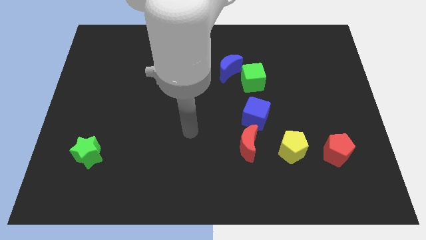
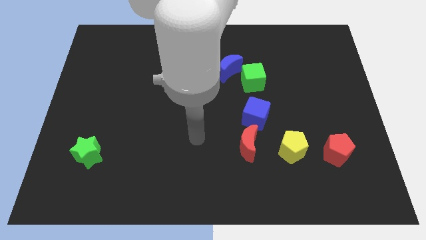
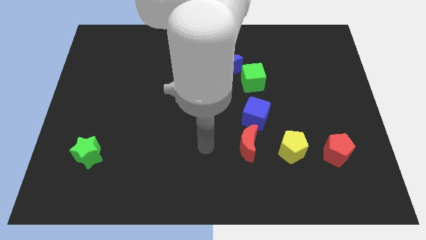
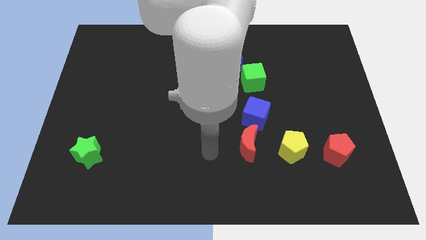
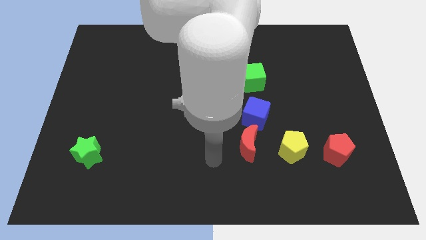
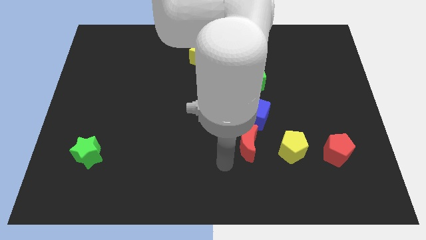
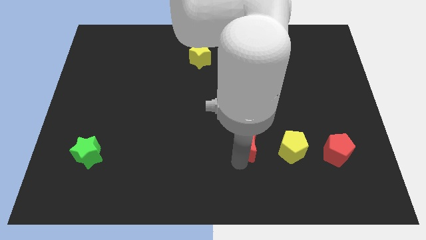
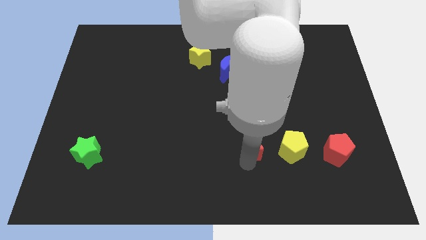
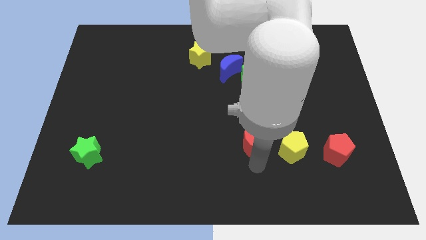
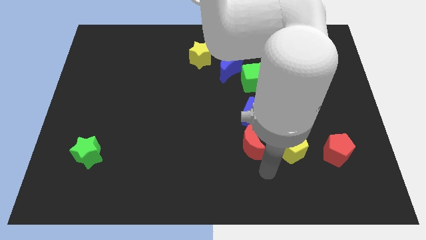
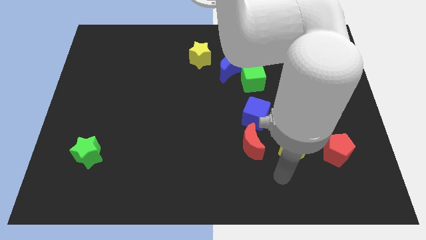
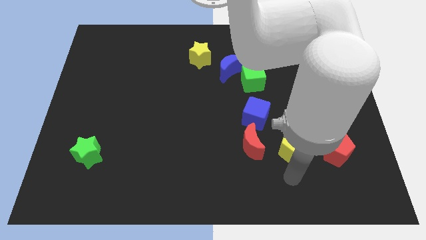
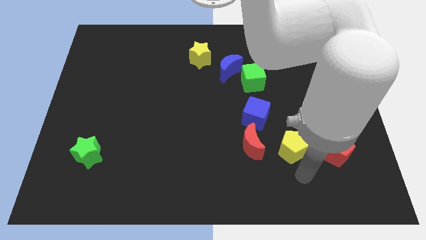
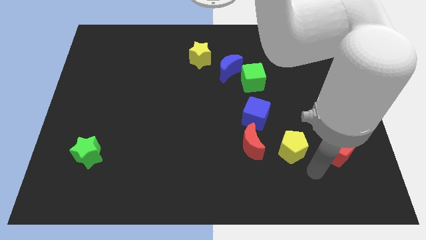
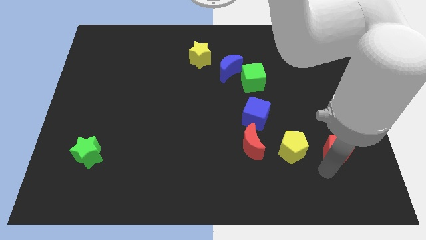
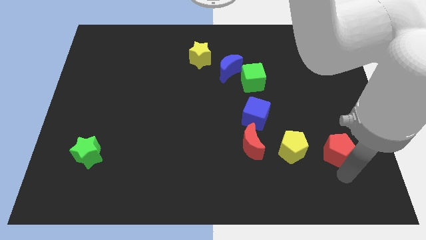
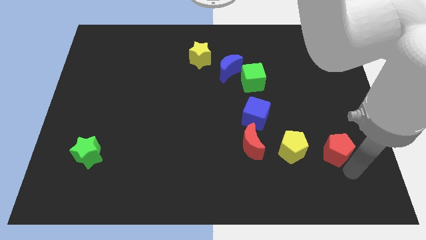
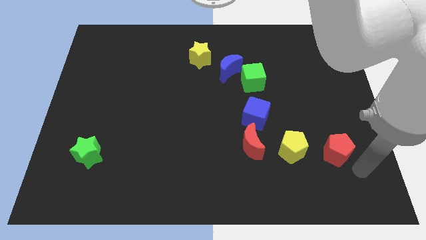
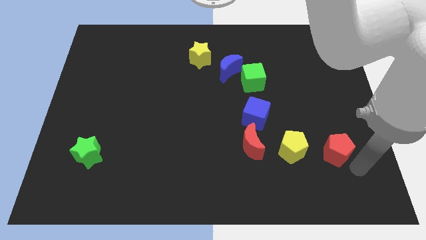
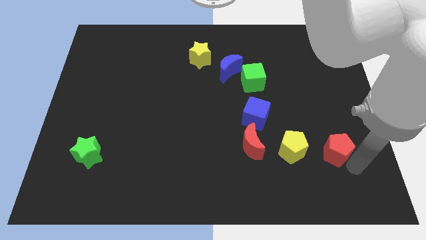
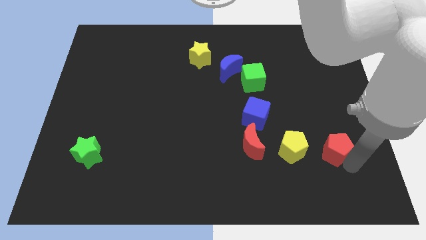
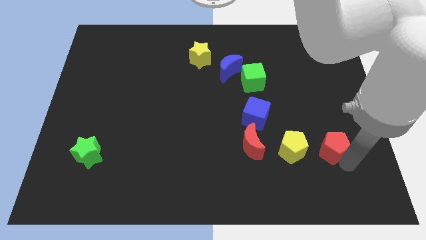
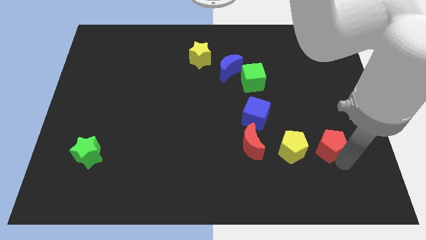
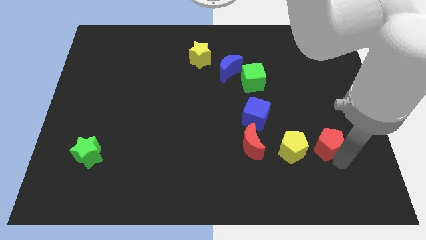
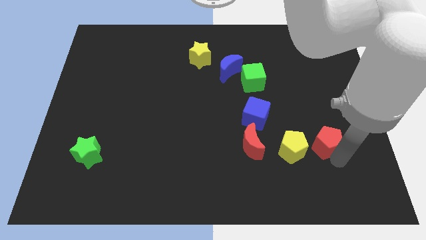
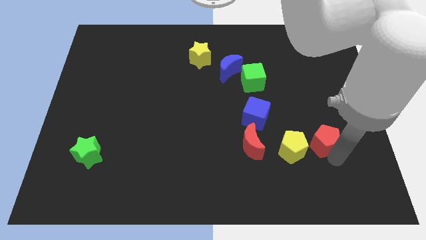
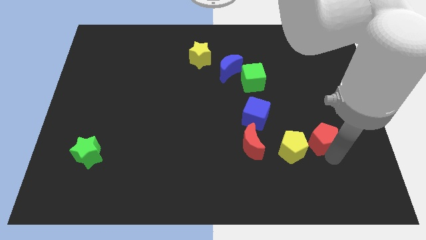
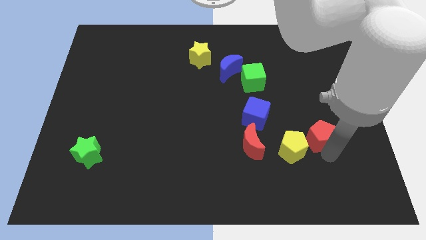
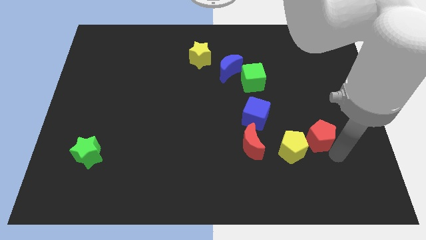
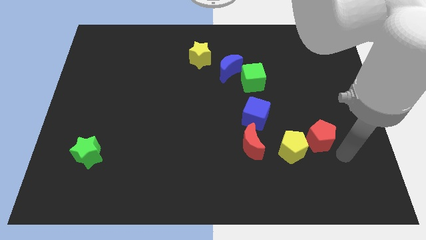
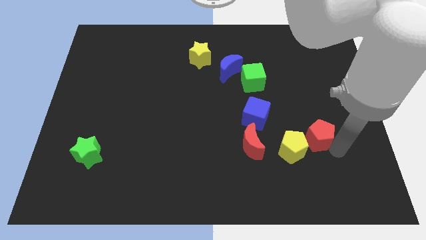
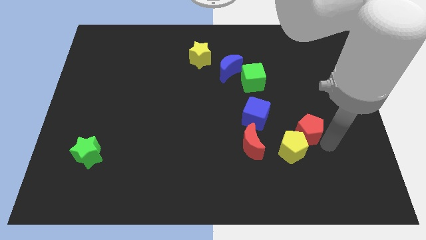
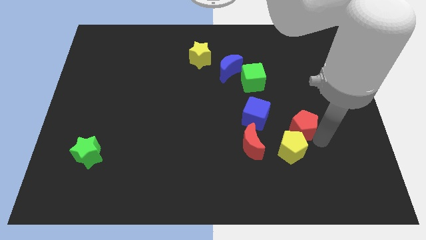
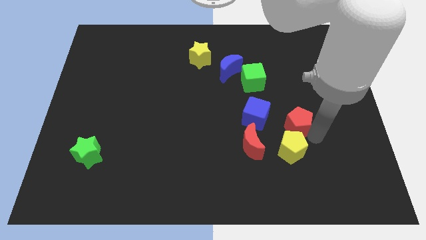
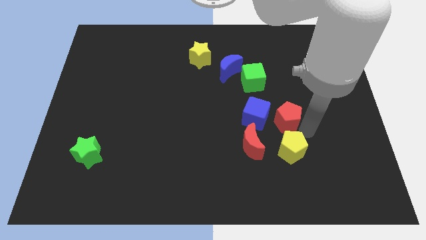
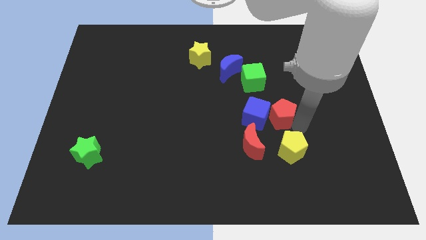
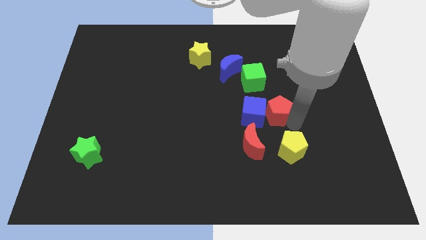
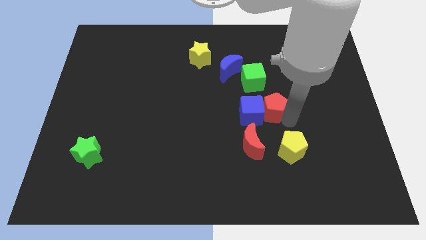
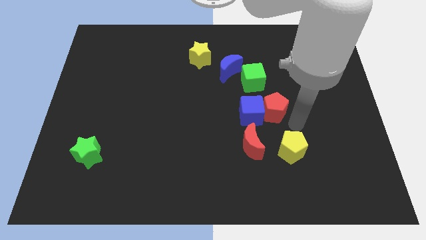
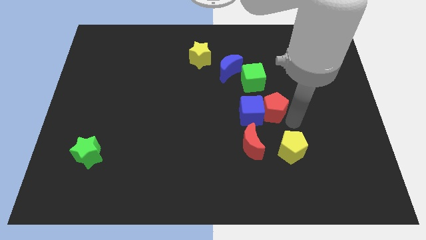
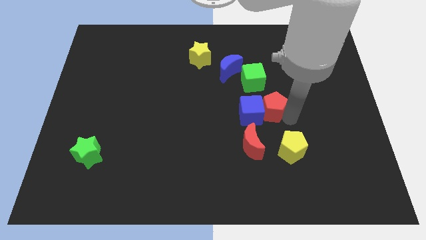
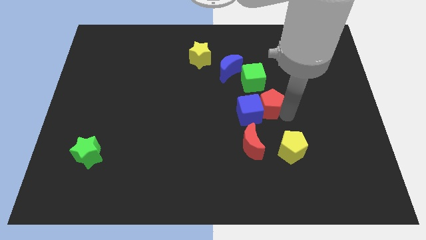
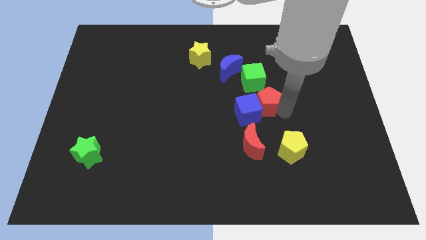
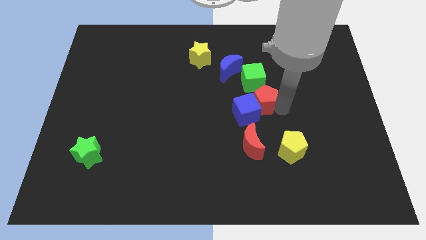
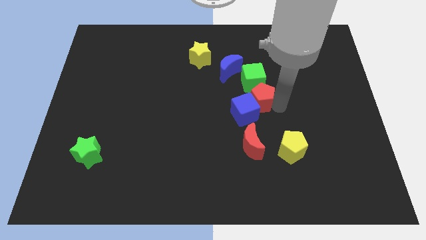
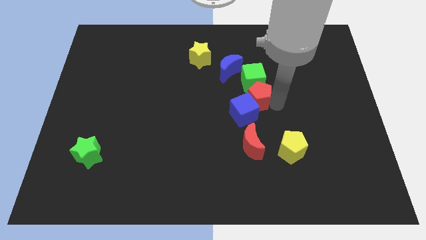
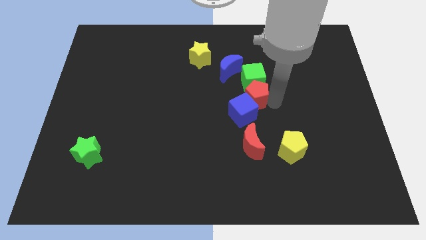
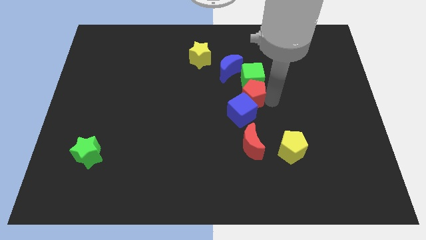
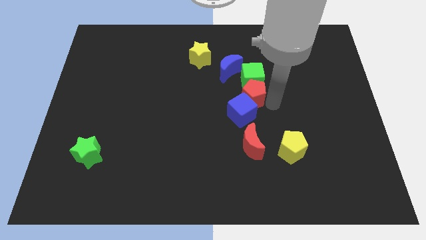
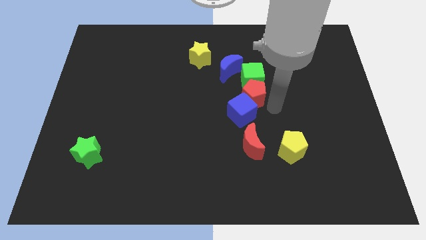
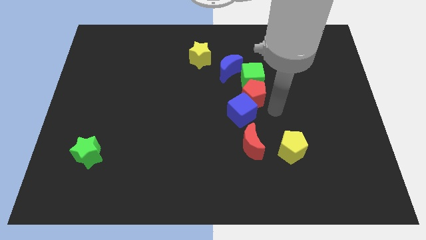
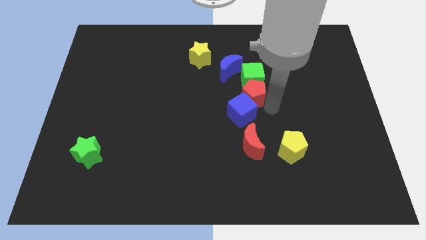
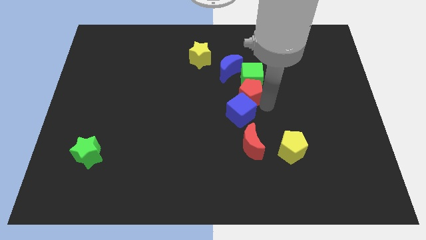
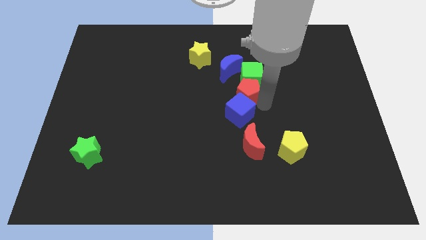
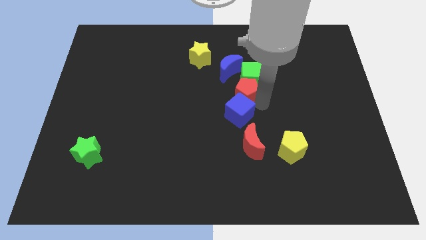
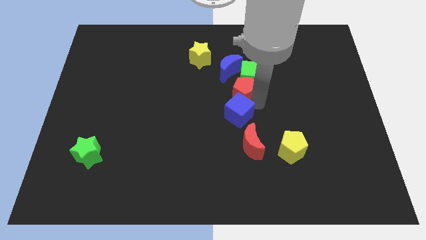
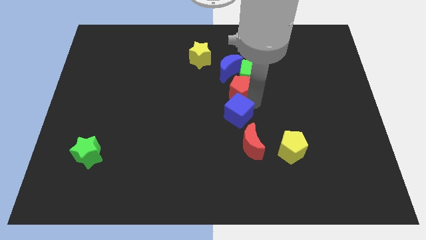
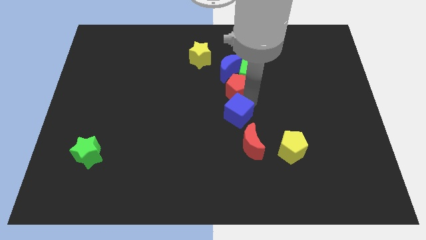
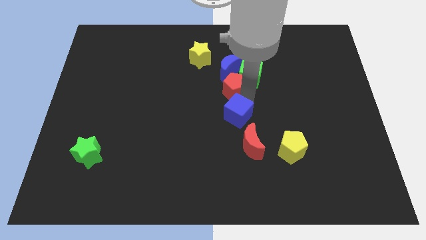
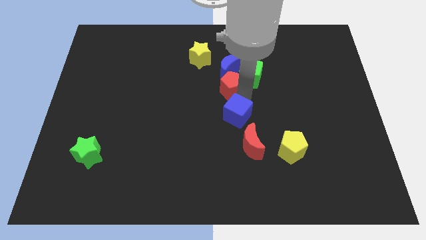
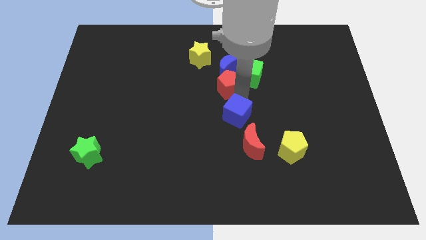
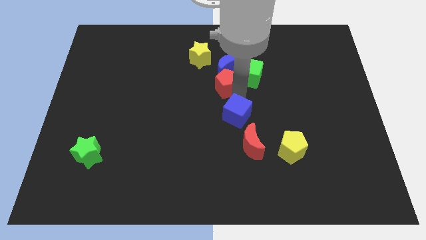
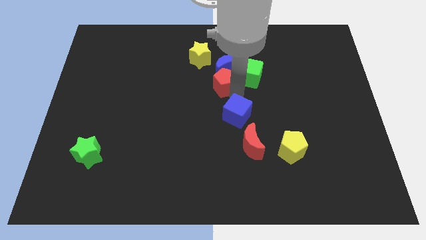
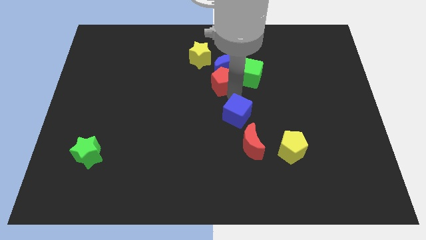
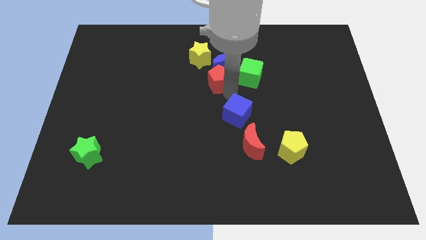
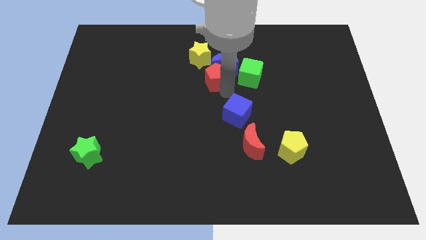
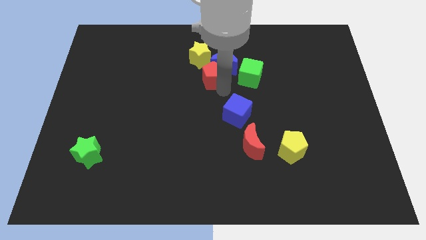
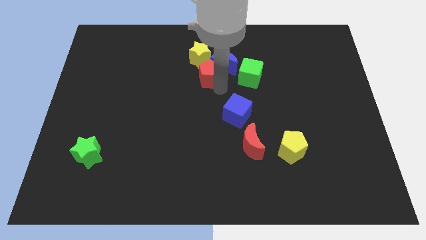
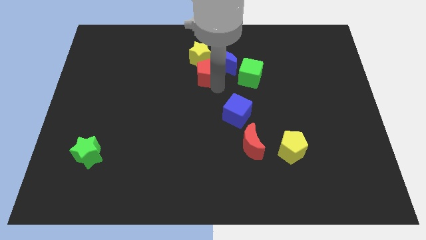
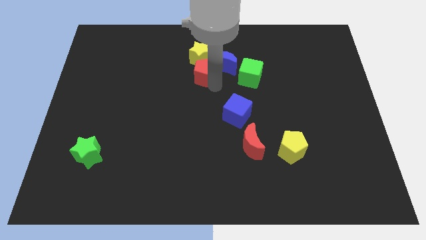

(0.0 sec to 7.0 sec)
push the red pentagon towards the yellow star

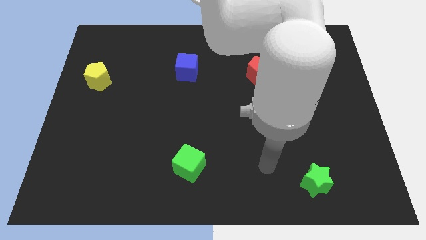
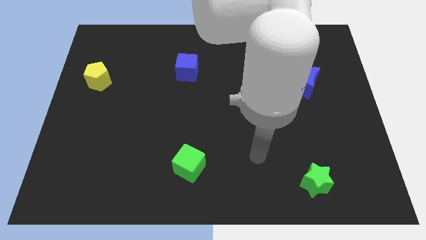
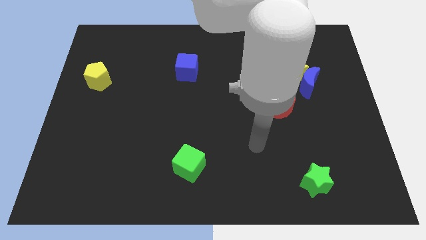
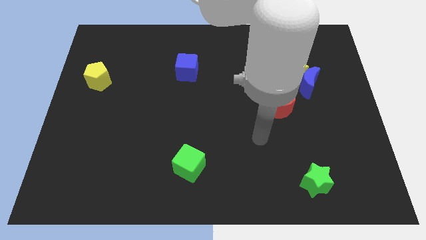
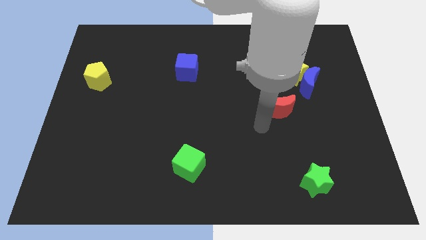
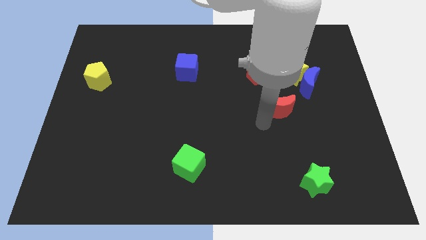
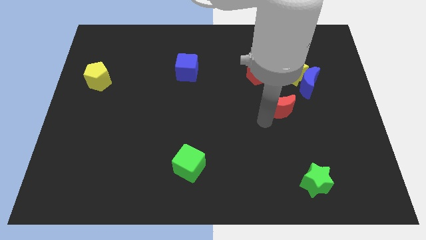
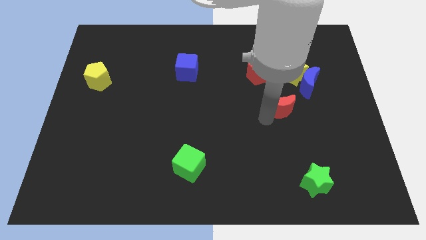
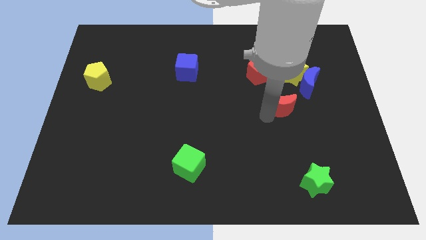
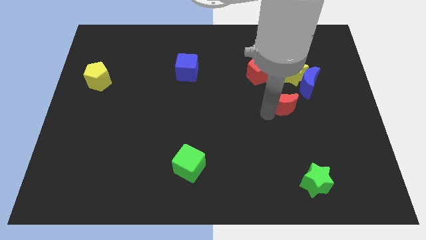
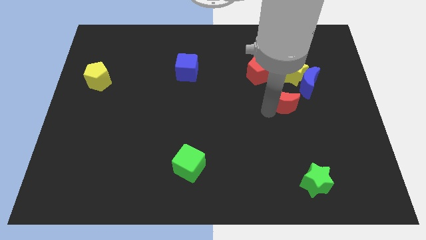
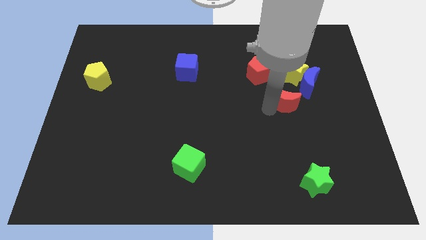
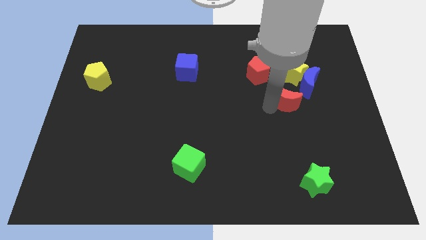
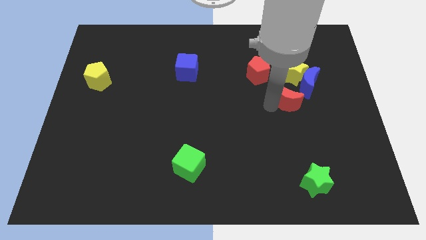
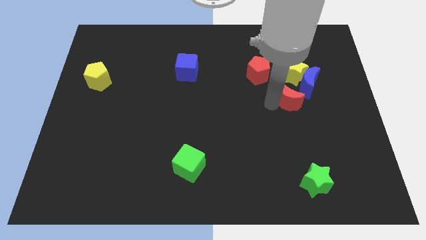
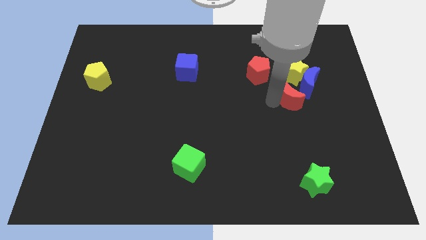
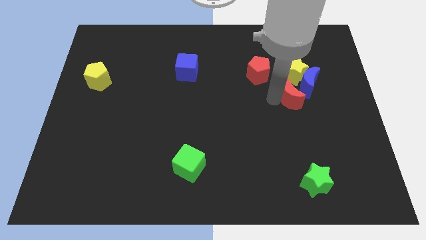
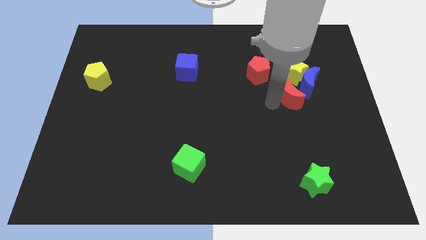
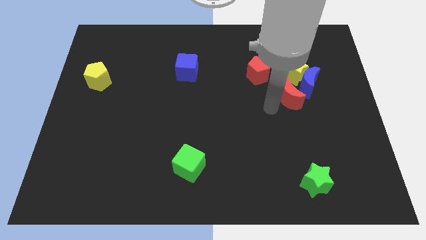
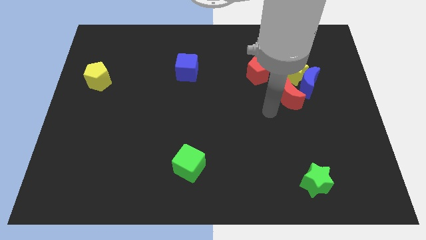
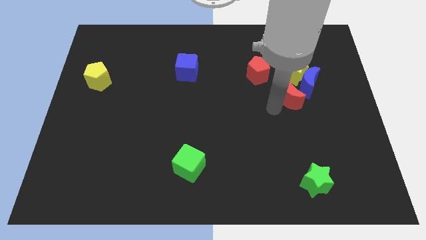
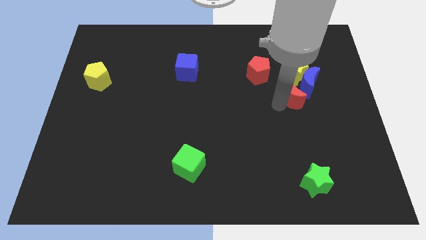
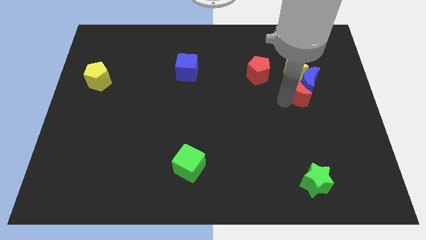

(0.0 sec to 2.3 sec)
put the red moon close to the blue moon
